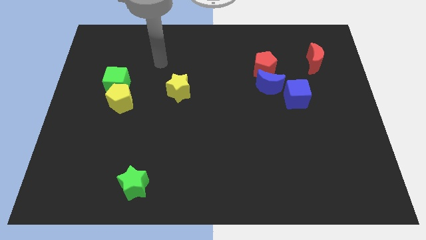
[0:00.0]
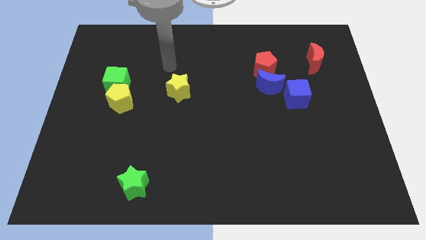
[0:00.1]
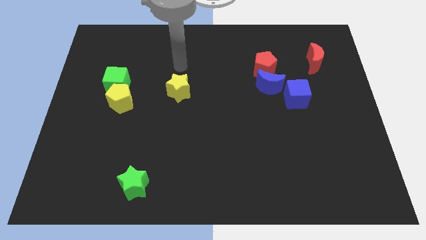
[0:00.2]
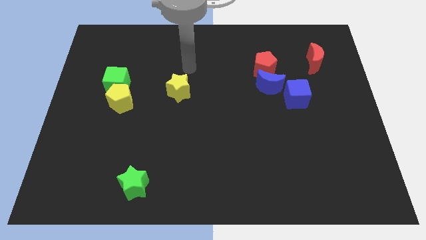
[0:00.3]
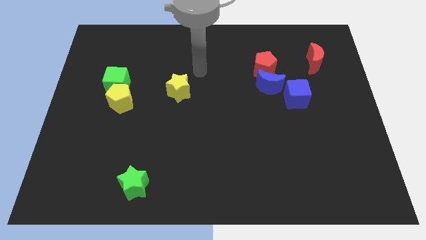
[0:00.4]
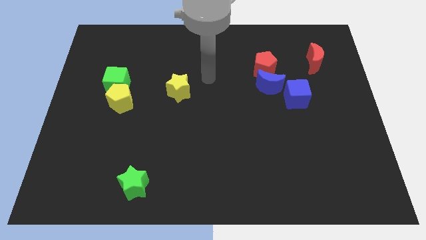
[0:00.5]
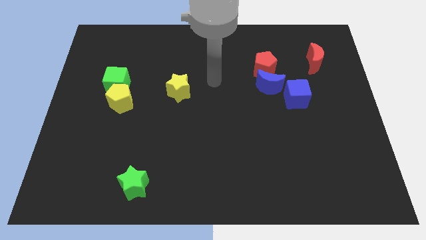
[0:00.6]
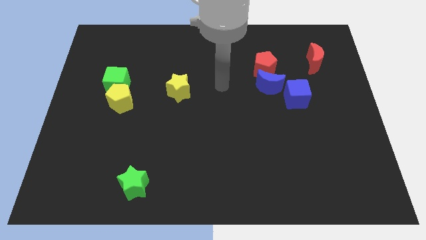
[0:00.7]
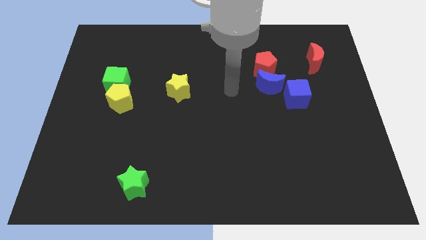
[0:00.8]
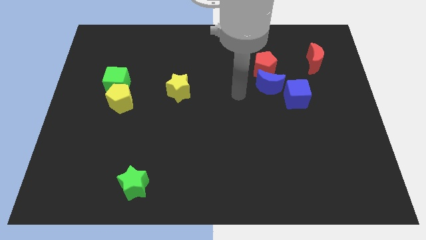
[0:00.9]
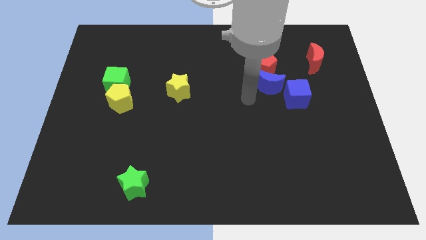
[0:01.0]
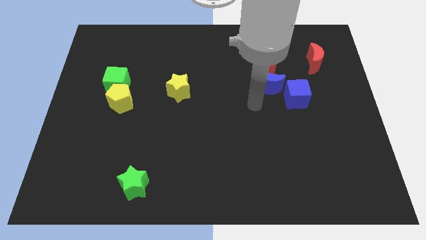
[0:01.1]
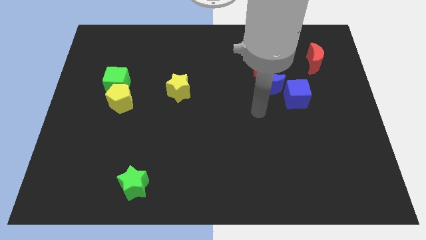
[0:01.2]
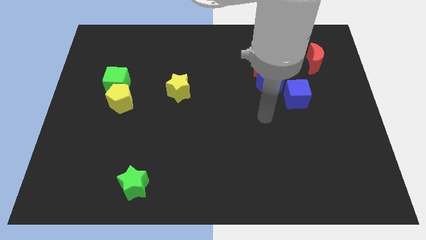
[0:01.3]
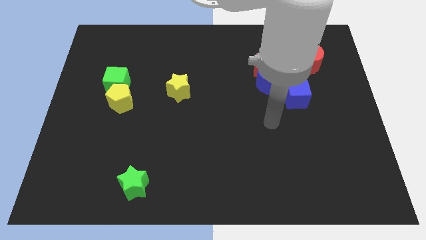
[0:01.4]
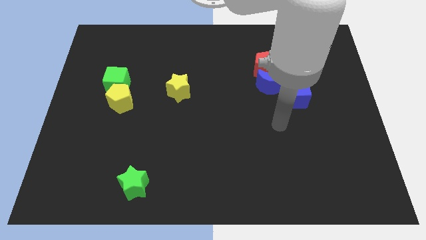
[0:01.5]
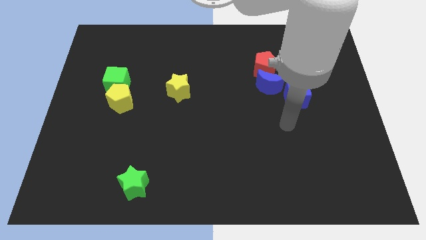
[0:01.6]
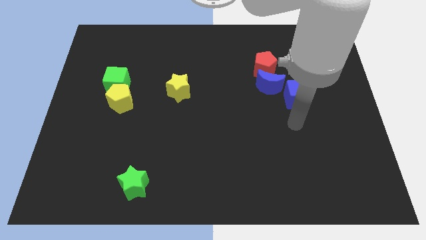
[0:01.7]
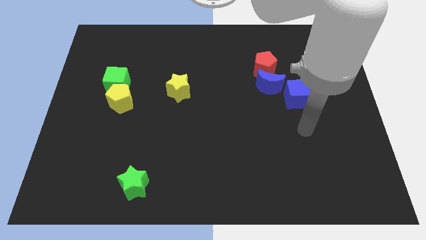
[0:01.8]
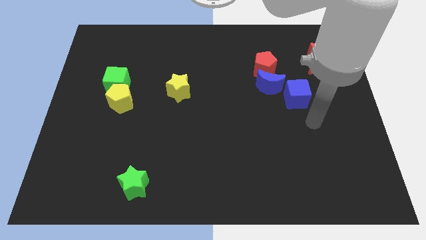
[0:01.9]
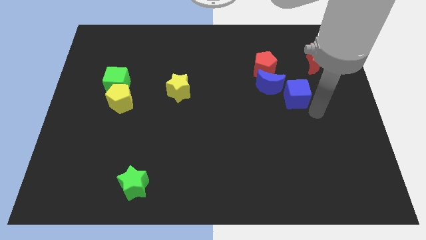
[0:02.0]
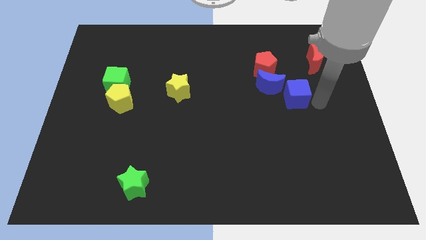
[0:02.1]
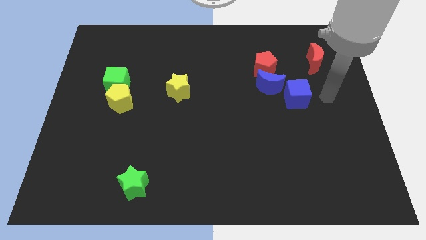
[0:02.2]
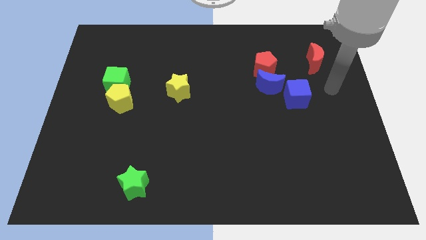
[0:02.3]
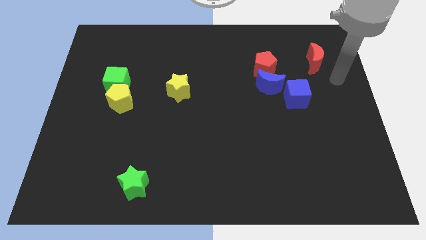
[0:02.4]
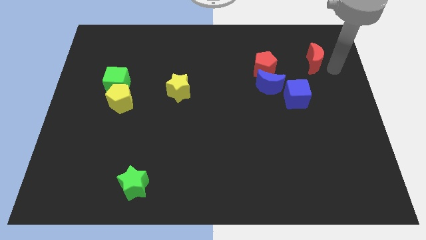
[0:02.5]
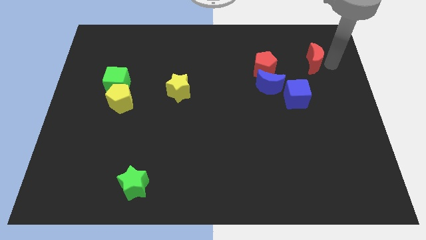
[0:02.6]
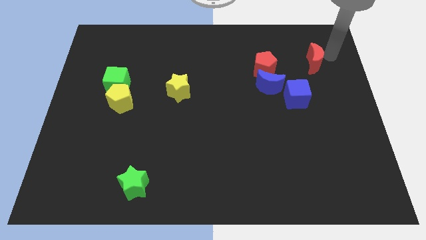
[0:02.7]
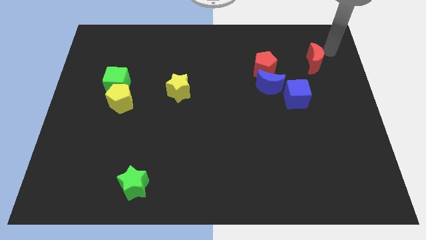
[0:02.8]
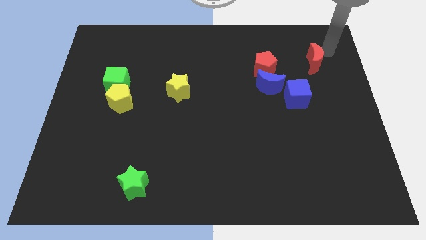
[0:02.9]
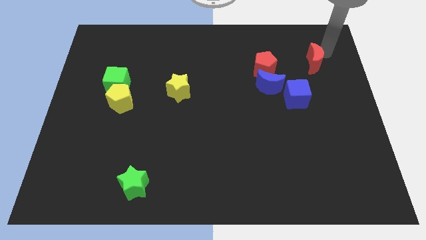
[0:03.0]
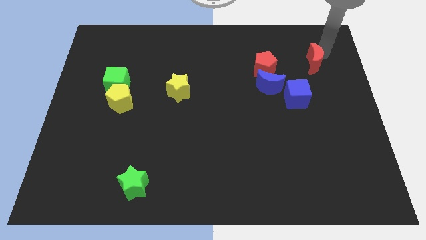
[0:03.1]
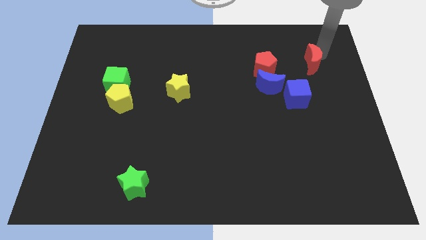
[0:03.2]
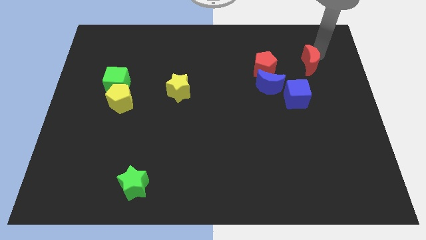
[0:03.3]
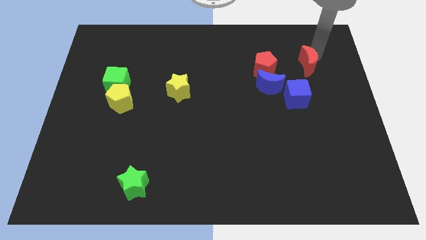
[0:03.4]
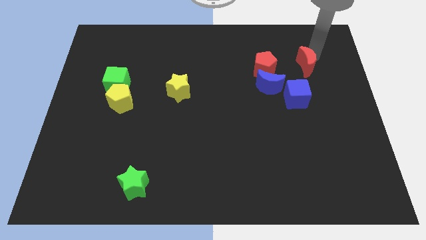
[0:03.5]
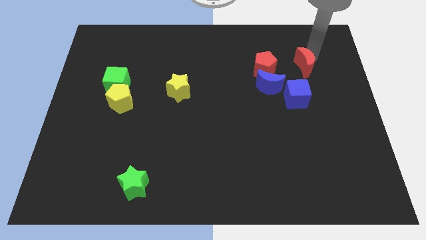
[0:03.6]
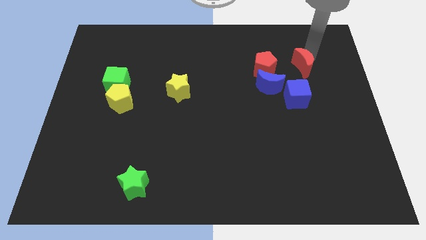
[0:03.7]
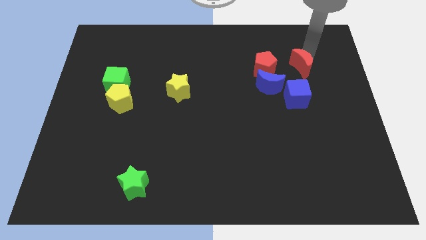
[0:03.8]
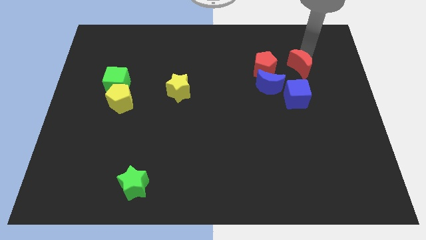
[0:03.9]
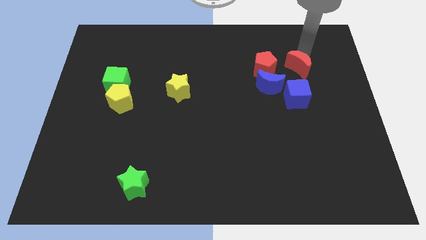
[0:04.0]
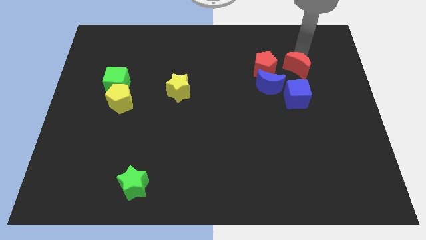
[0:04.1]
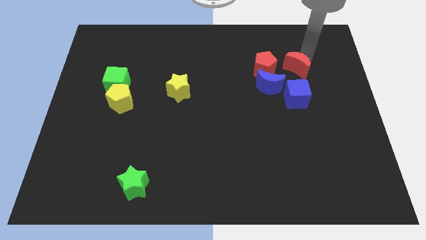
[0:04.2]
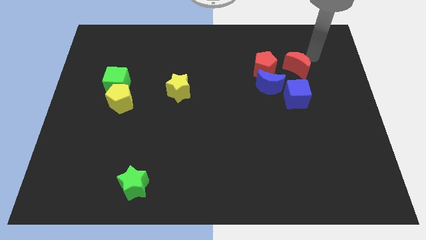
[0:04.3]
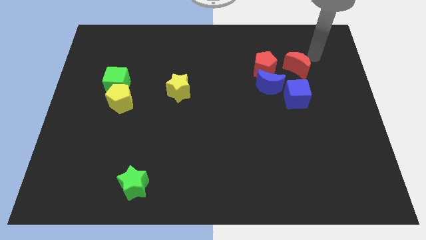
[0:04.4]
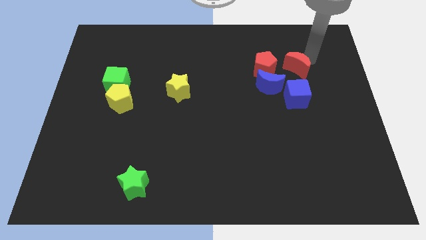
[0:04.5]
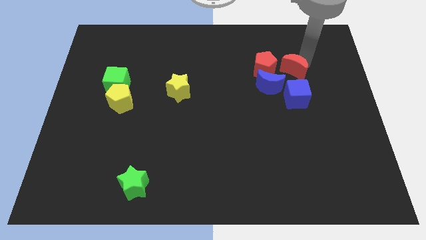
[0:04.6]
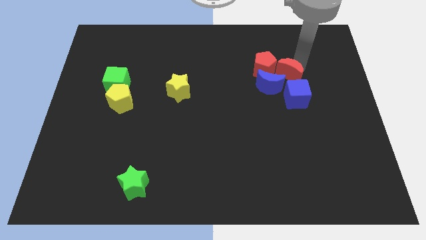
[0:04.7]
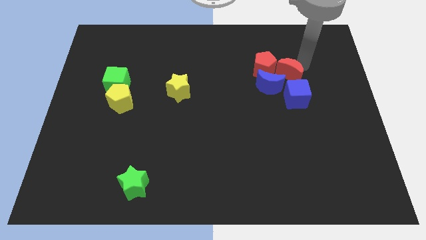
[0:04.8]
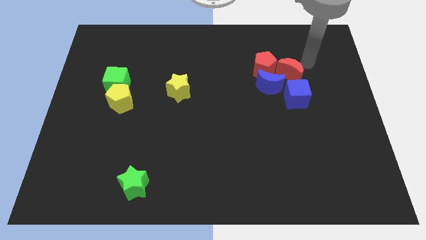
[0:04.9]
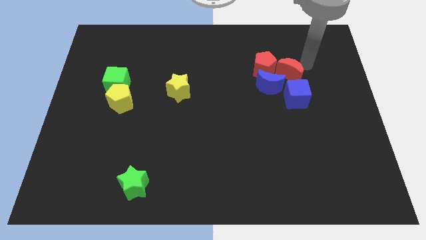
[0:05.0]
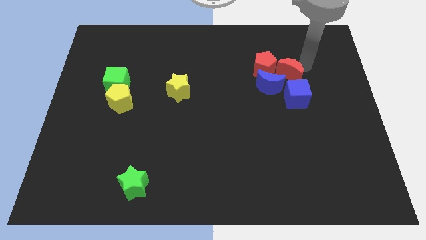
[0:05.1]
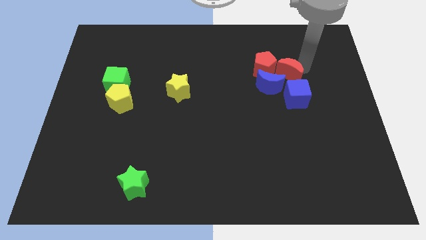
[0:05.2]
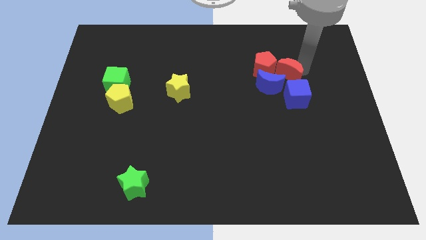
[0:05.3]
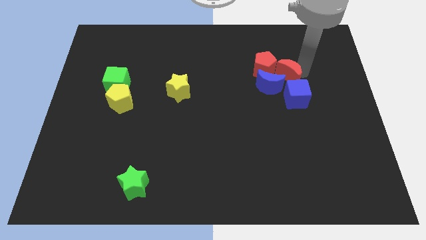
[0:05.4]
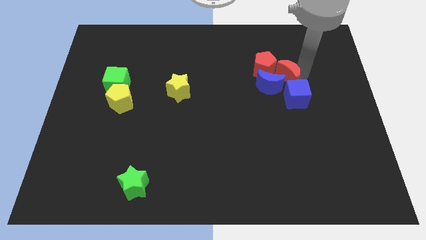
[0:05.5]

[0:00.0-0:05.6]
put the red moon close to the blue moon
